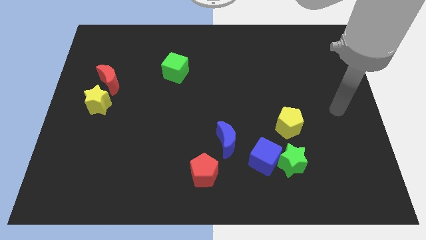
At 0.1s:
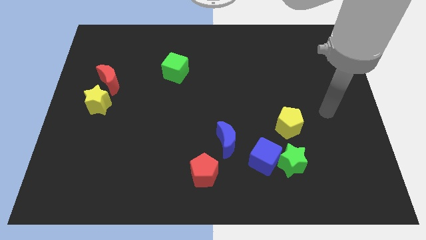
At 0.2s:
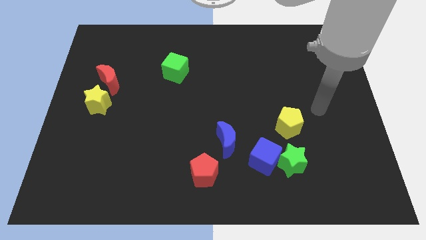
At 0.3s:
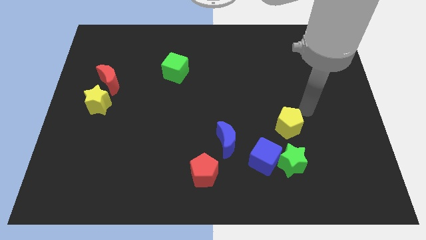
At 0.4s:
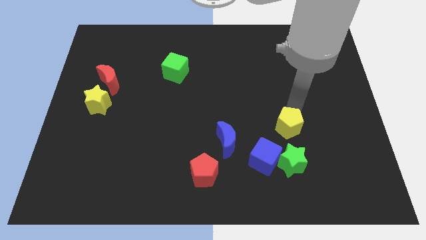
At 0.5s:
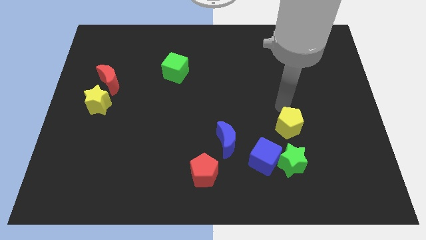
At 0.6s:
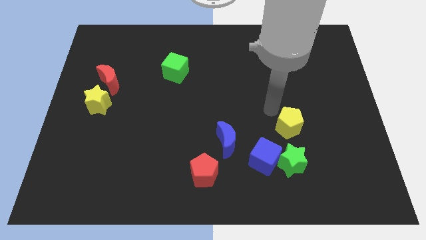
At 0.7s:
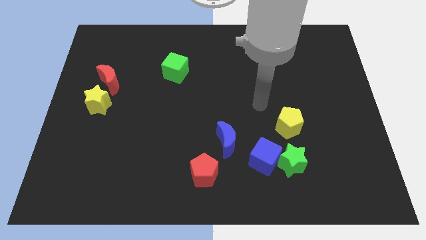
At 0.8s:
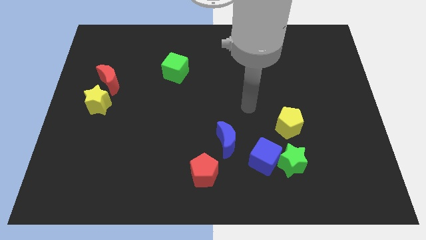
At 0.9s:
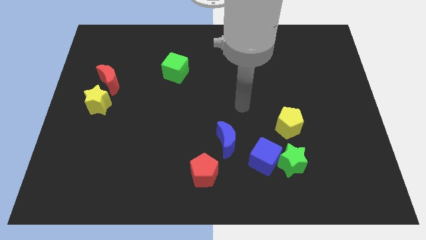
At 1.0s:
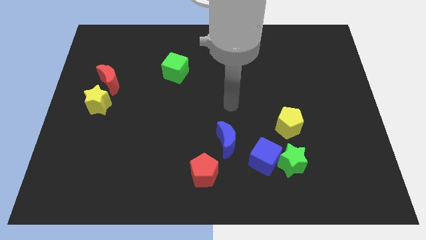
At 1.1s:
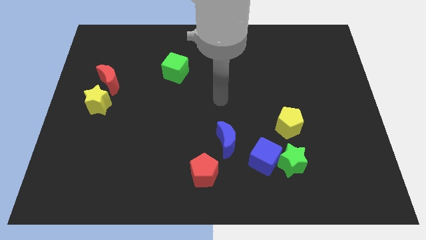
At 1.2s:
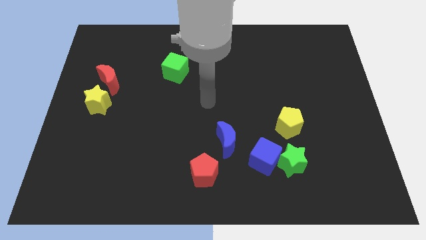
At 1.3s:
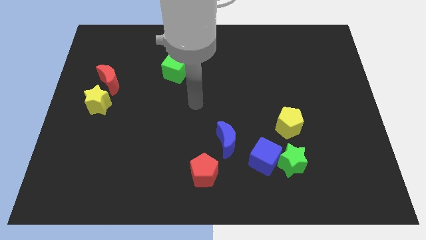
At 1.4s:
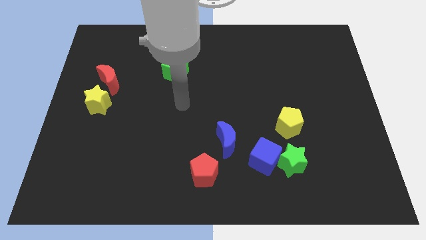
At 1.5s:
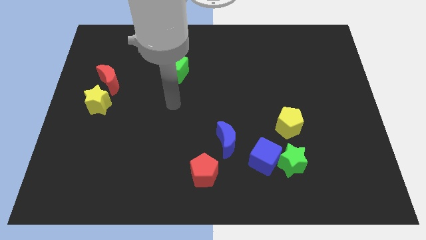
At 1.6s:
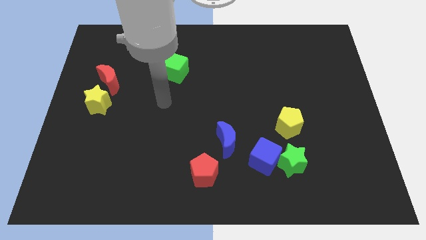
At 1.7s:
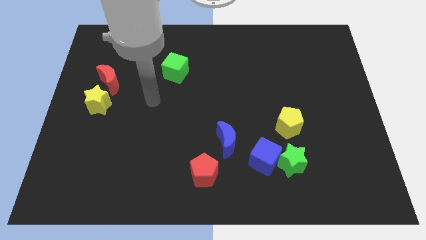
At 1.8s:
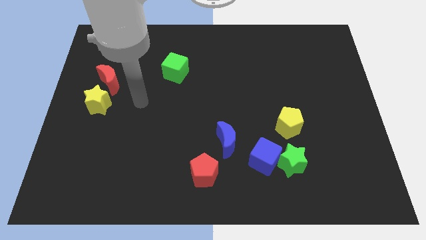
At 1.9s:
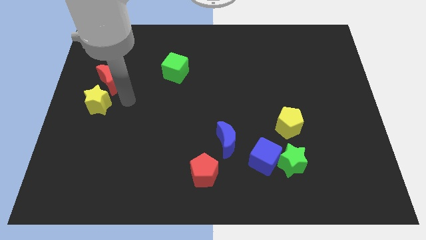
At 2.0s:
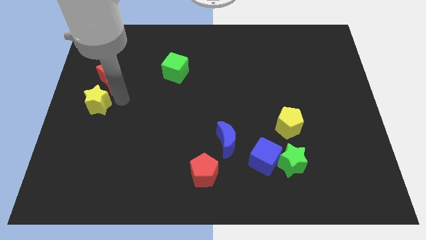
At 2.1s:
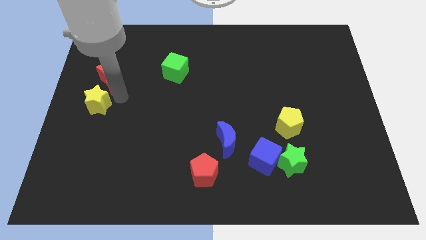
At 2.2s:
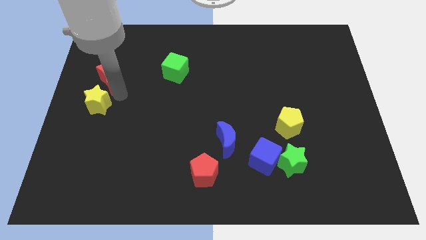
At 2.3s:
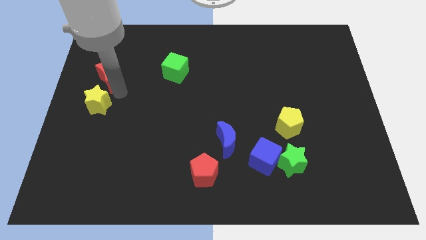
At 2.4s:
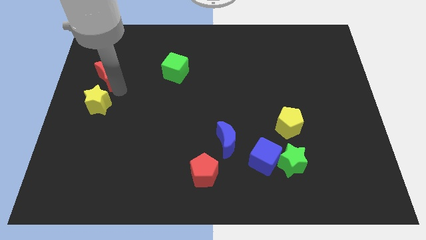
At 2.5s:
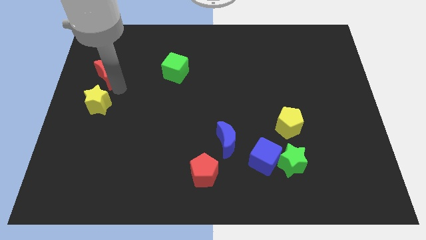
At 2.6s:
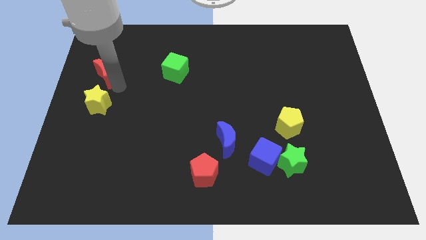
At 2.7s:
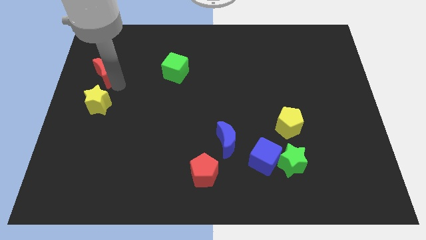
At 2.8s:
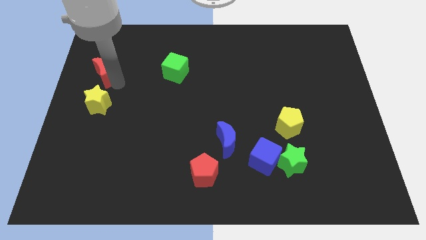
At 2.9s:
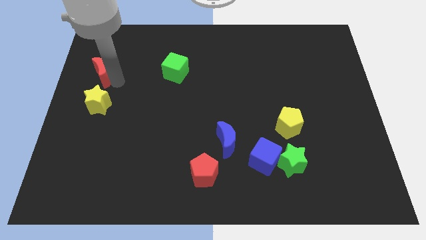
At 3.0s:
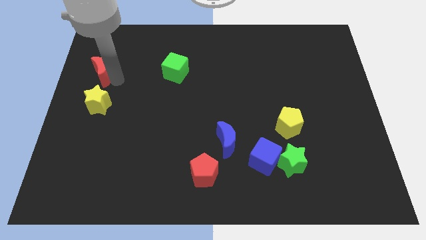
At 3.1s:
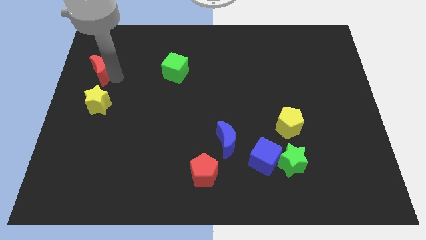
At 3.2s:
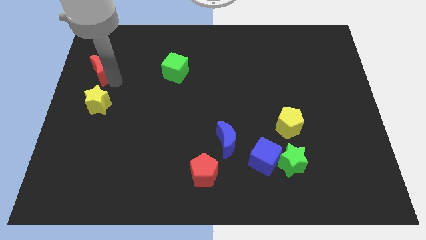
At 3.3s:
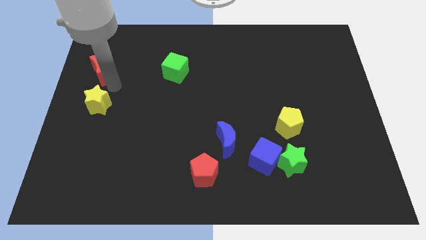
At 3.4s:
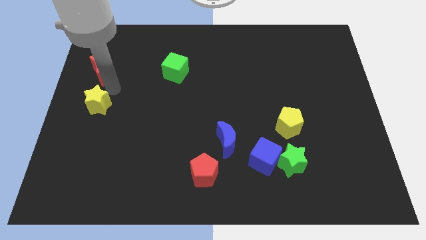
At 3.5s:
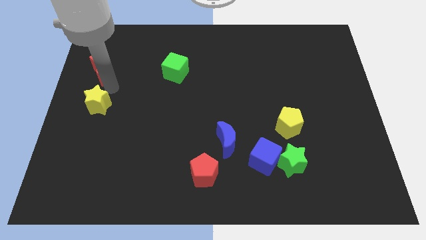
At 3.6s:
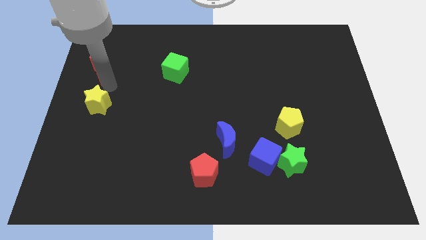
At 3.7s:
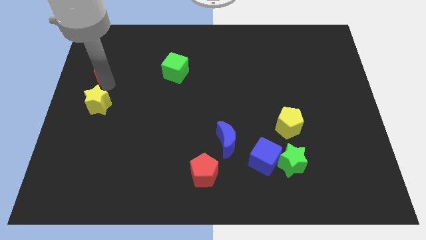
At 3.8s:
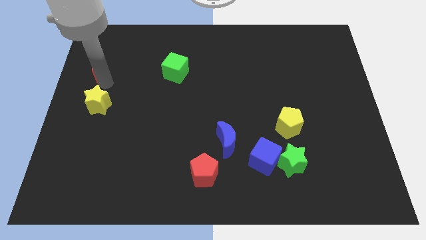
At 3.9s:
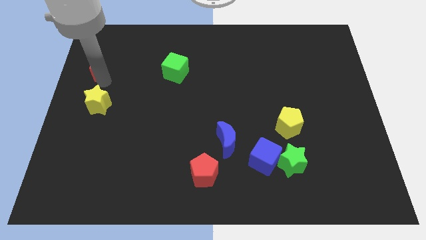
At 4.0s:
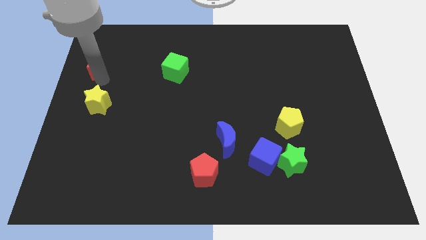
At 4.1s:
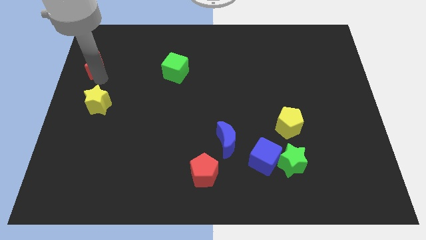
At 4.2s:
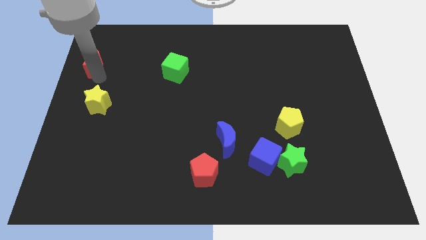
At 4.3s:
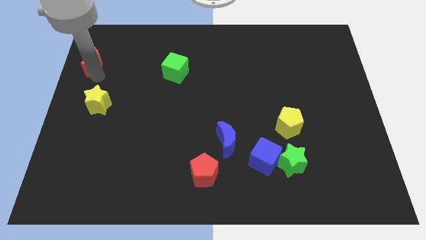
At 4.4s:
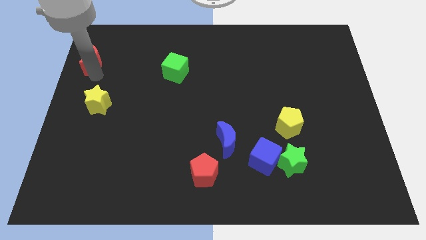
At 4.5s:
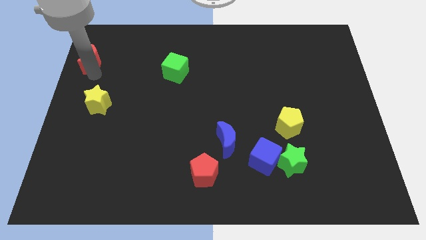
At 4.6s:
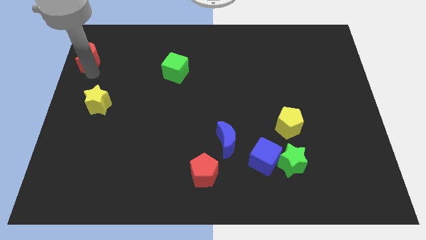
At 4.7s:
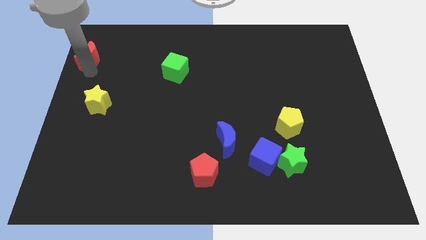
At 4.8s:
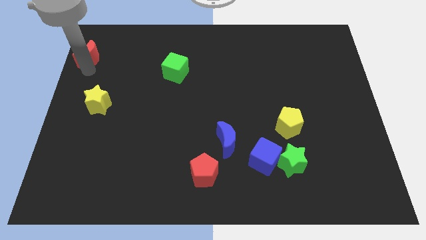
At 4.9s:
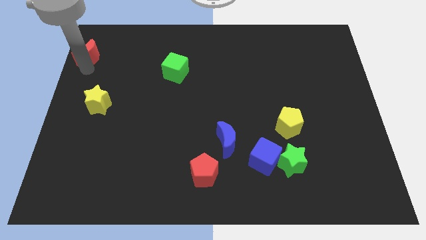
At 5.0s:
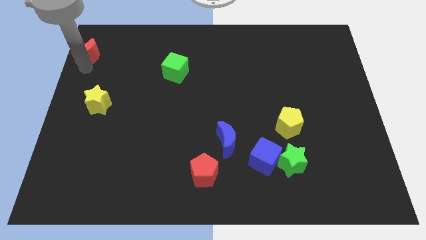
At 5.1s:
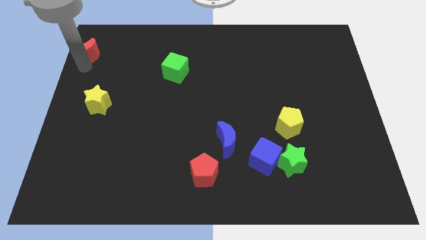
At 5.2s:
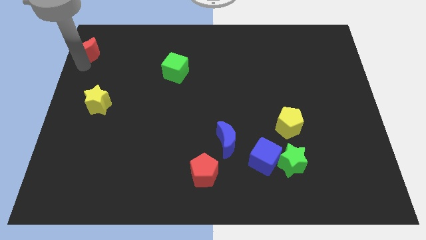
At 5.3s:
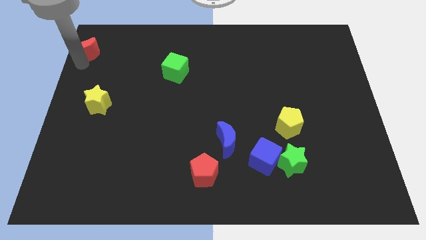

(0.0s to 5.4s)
slide the red moon to the top left corner

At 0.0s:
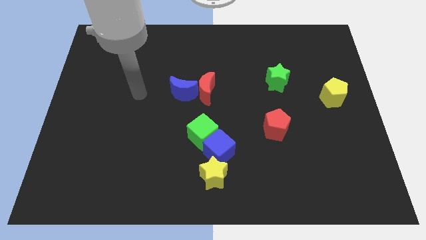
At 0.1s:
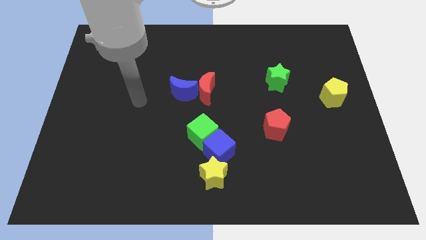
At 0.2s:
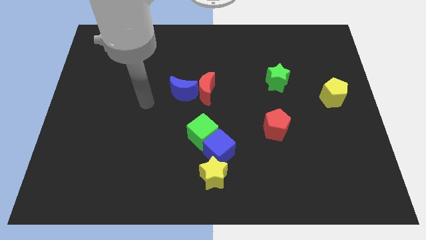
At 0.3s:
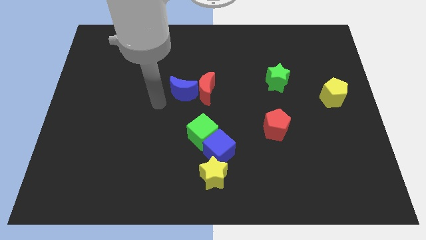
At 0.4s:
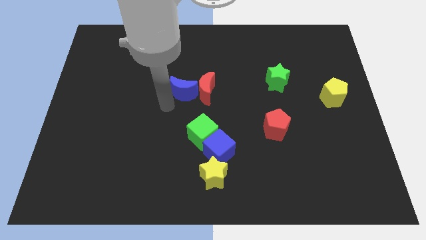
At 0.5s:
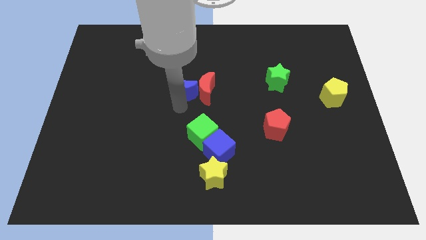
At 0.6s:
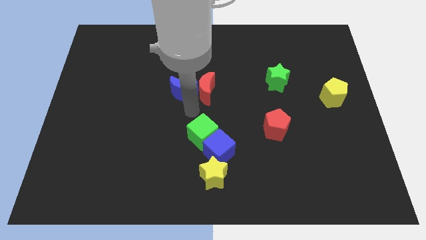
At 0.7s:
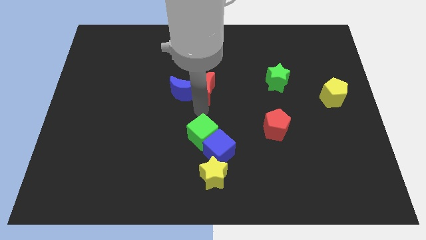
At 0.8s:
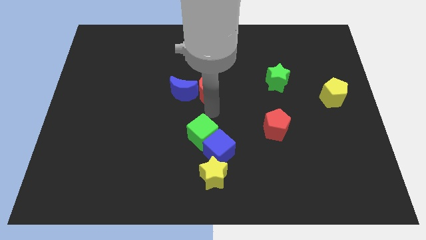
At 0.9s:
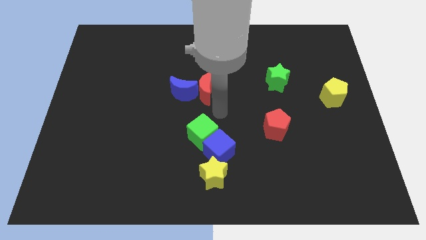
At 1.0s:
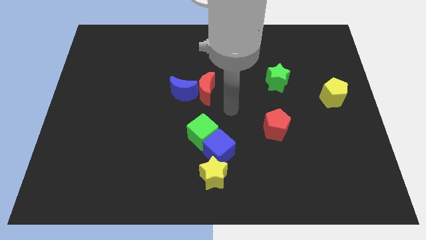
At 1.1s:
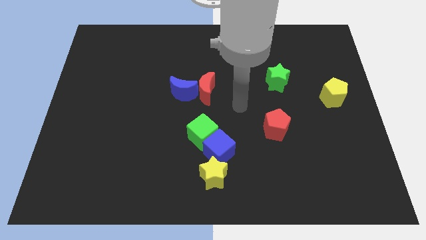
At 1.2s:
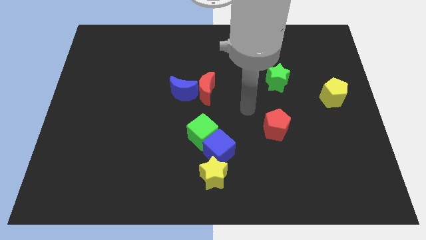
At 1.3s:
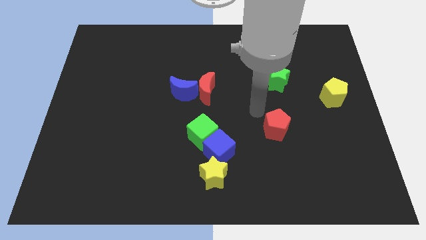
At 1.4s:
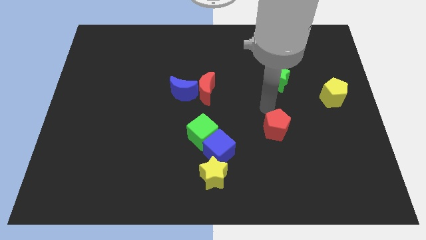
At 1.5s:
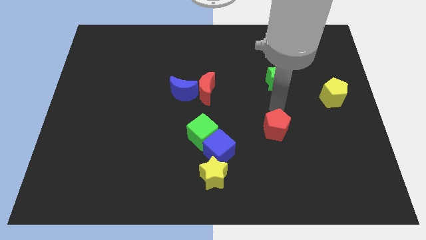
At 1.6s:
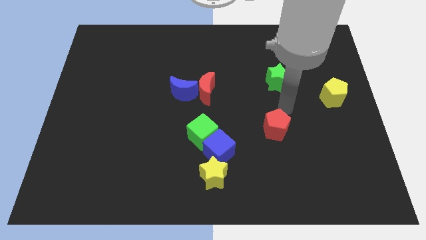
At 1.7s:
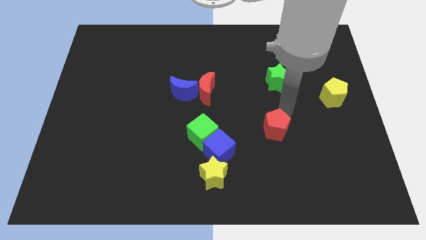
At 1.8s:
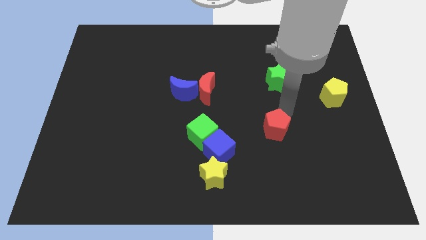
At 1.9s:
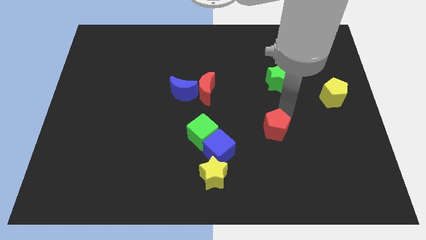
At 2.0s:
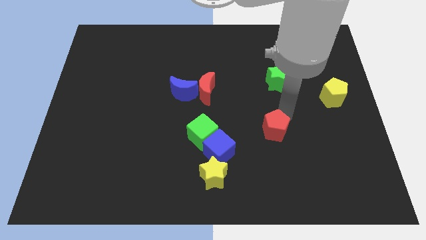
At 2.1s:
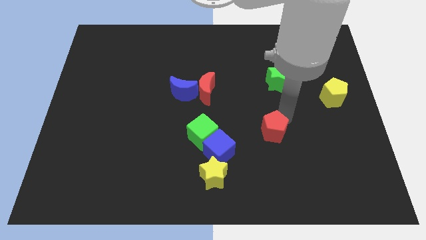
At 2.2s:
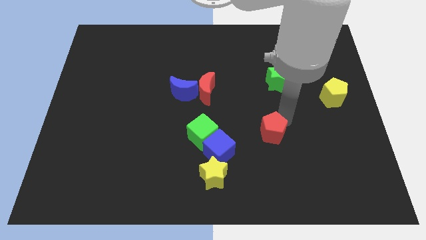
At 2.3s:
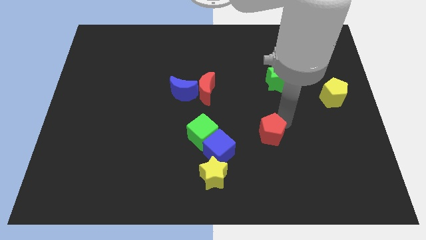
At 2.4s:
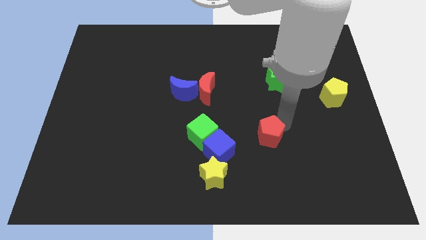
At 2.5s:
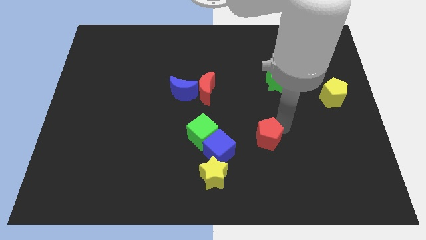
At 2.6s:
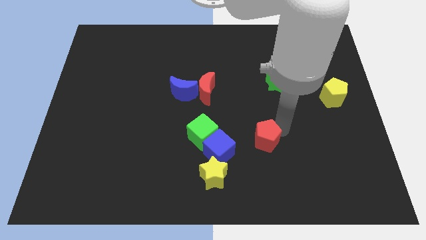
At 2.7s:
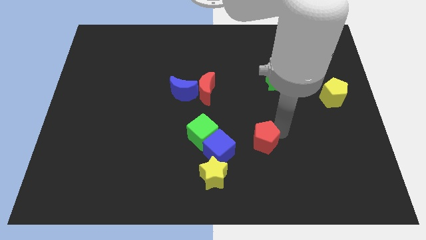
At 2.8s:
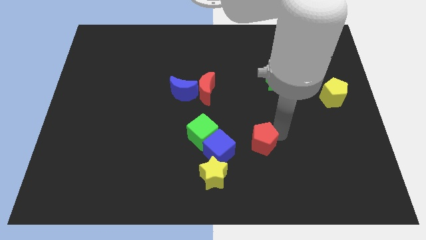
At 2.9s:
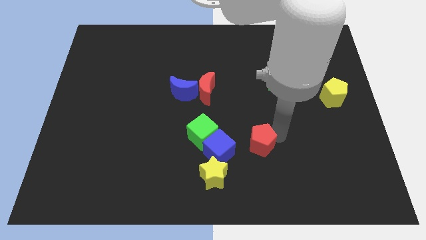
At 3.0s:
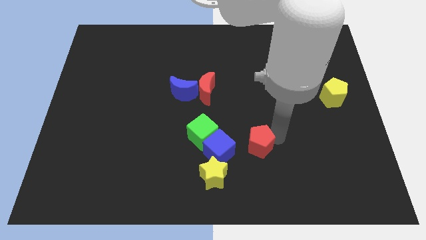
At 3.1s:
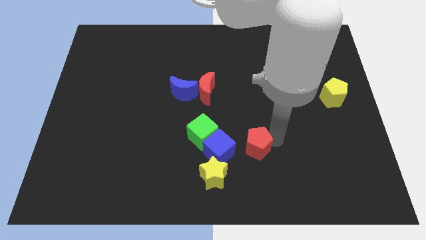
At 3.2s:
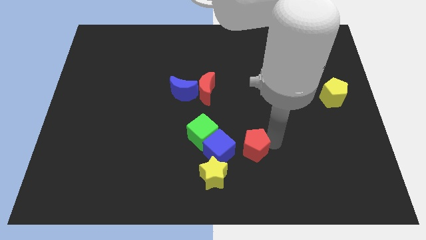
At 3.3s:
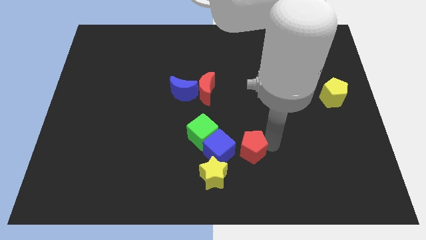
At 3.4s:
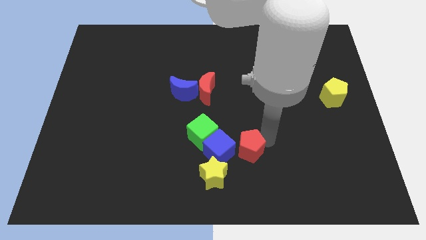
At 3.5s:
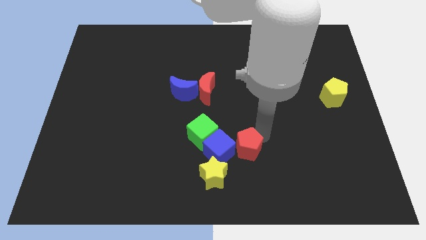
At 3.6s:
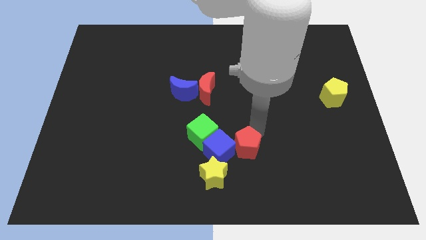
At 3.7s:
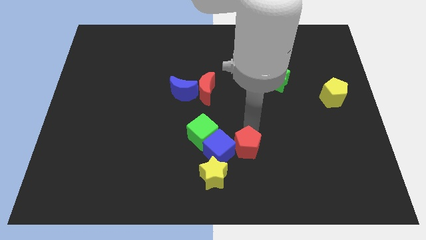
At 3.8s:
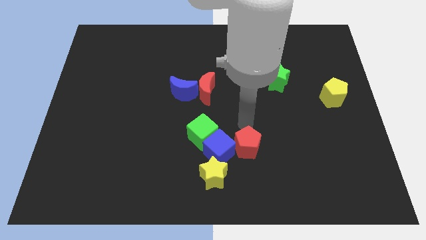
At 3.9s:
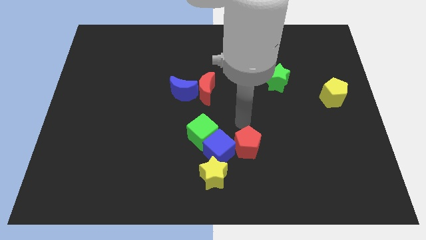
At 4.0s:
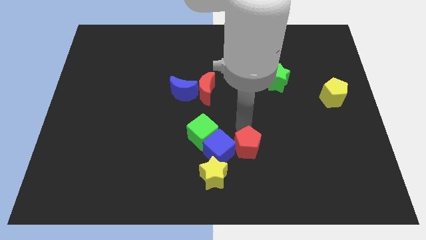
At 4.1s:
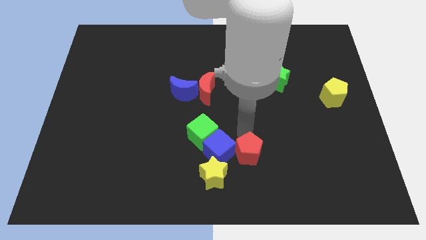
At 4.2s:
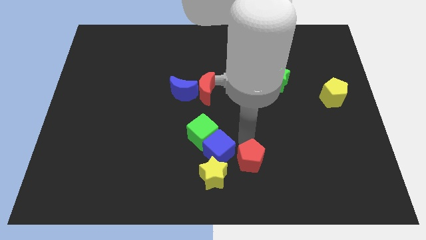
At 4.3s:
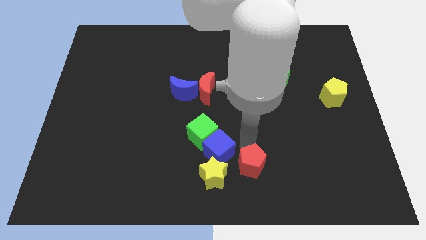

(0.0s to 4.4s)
move the red pentagon to the bottom
